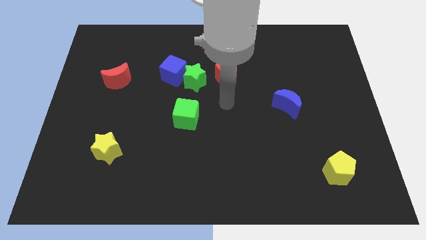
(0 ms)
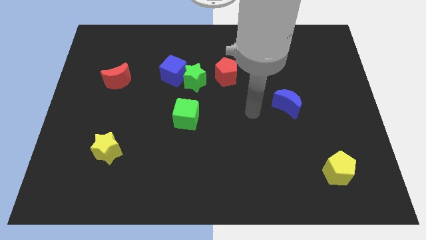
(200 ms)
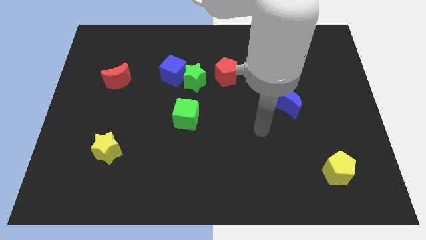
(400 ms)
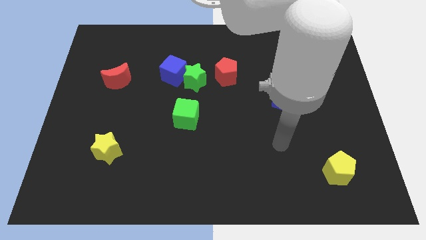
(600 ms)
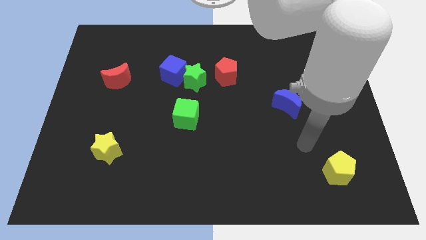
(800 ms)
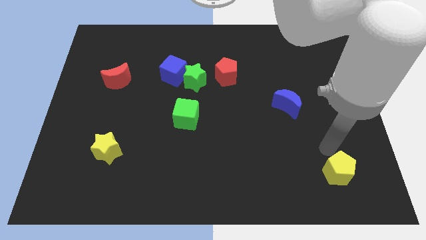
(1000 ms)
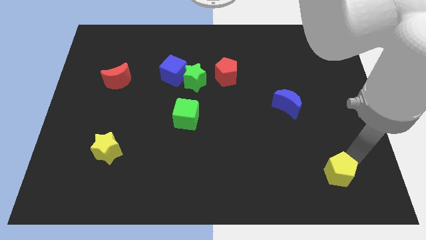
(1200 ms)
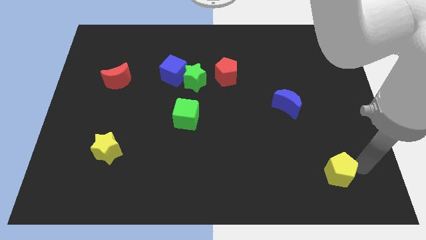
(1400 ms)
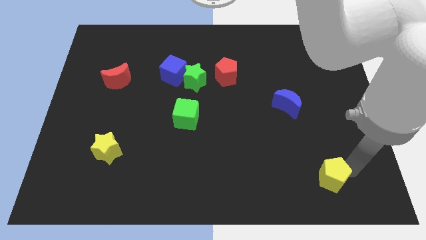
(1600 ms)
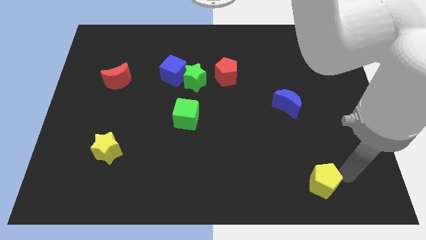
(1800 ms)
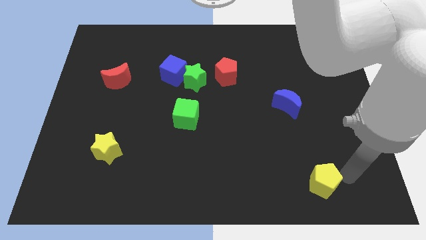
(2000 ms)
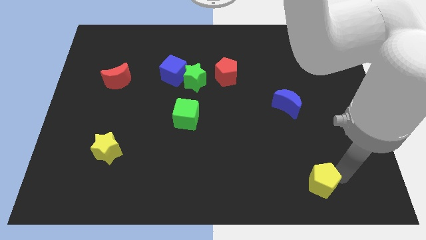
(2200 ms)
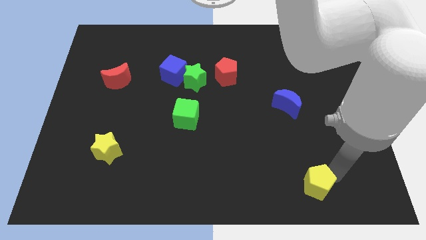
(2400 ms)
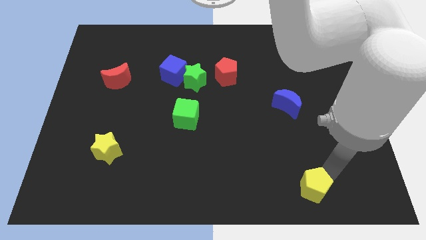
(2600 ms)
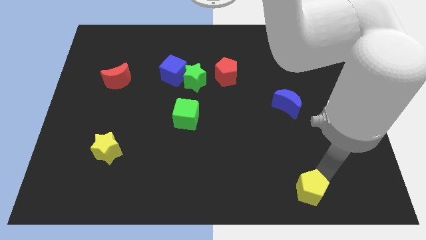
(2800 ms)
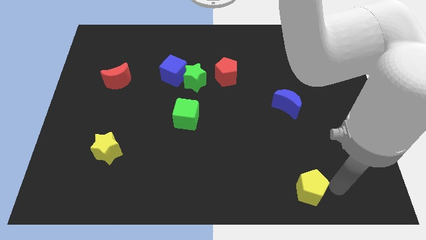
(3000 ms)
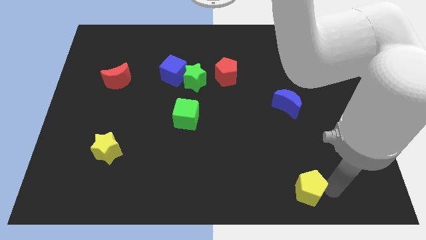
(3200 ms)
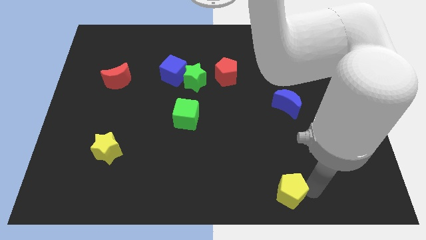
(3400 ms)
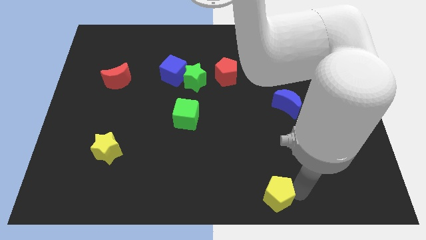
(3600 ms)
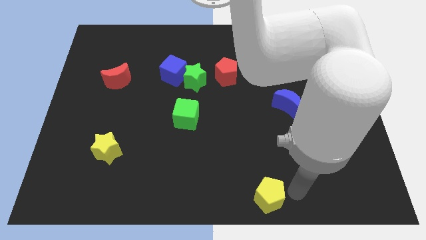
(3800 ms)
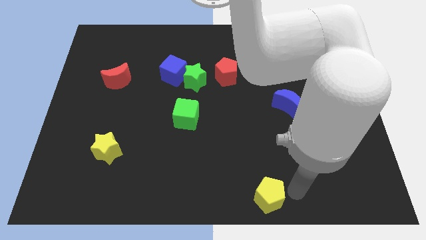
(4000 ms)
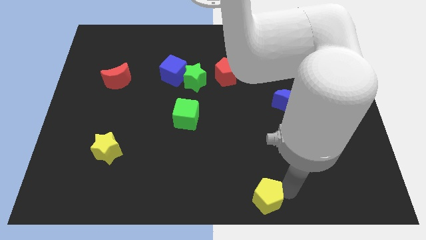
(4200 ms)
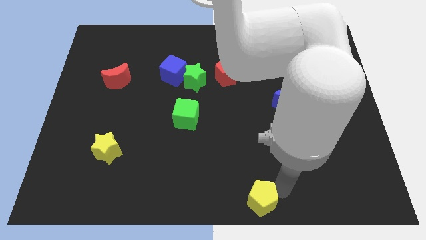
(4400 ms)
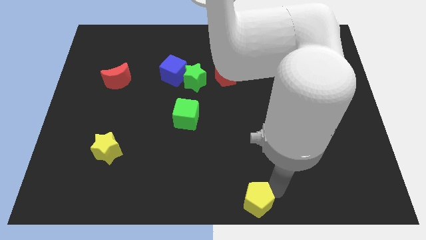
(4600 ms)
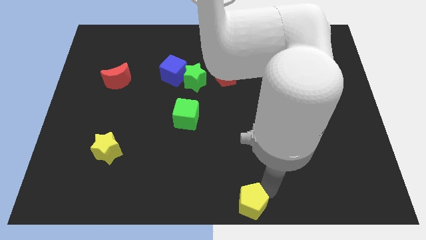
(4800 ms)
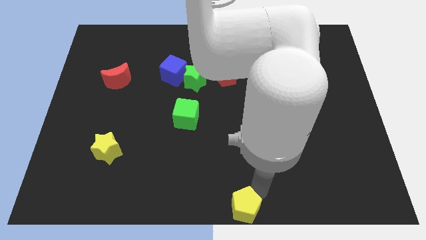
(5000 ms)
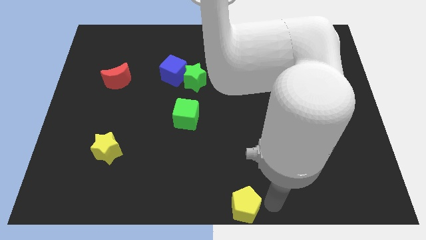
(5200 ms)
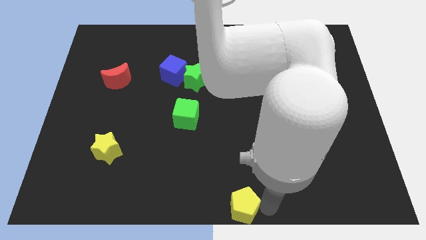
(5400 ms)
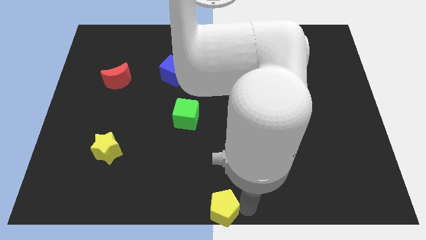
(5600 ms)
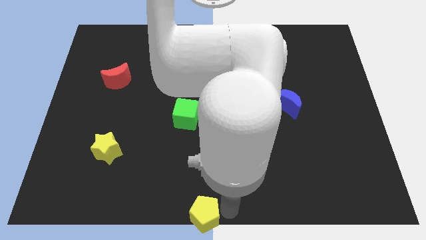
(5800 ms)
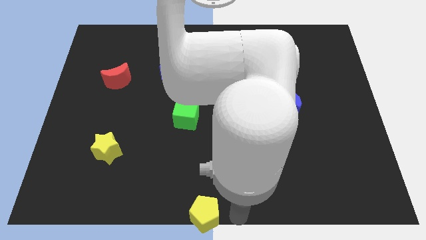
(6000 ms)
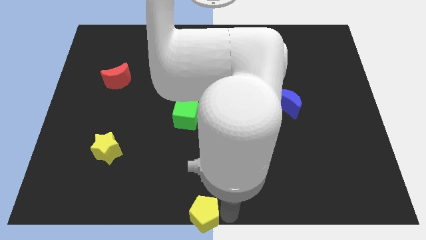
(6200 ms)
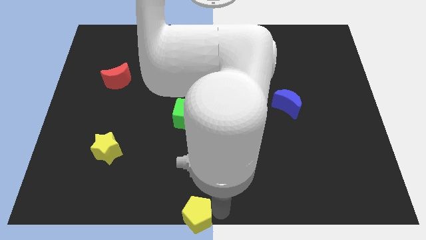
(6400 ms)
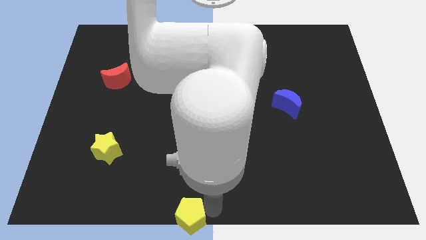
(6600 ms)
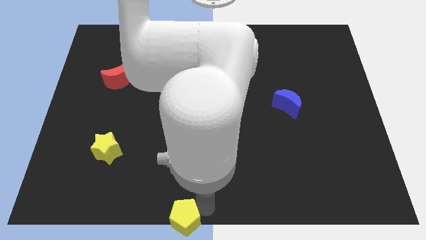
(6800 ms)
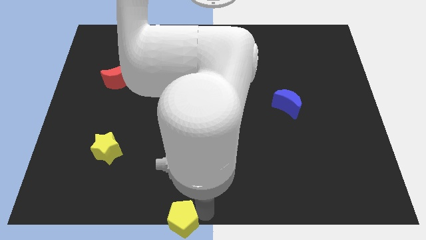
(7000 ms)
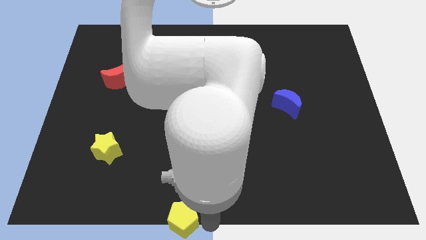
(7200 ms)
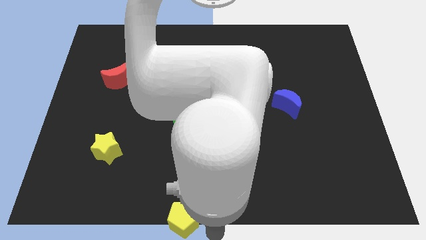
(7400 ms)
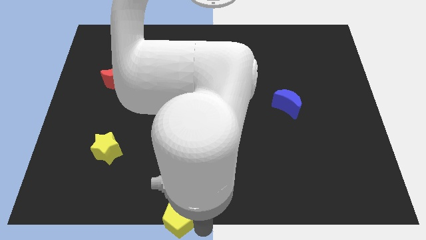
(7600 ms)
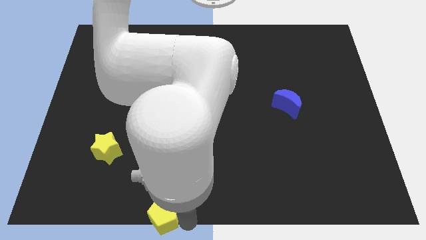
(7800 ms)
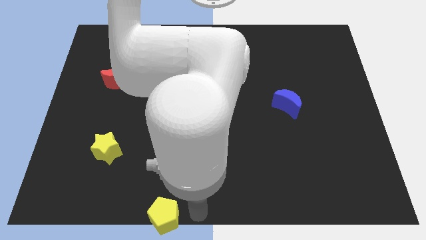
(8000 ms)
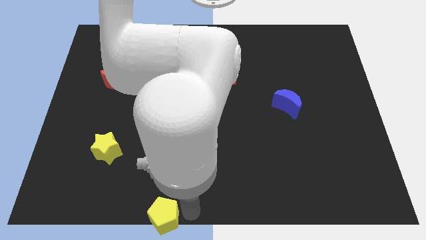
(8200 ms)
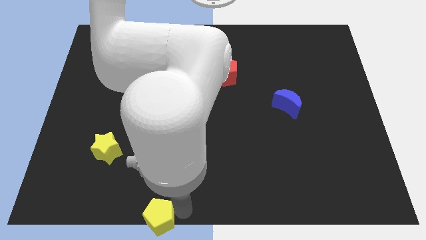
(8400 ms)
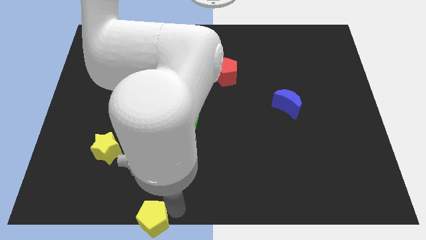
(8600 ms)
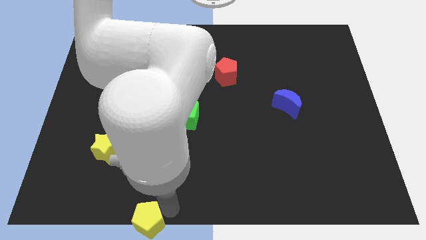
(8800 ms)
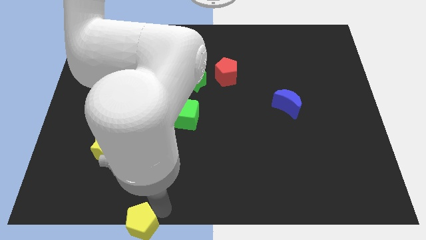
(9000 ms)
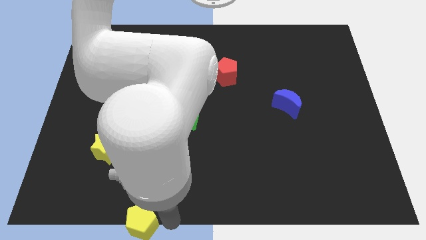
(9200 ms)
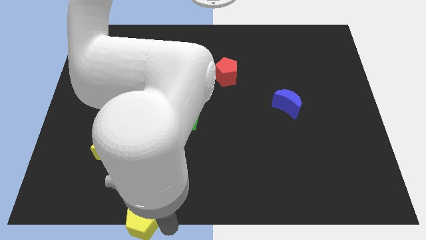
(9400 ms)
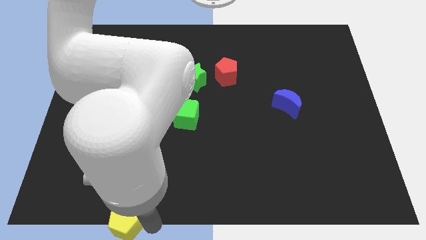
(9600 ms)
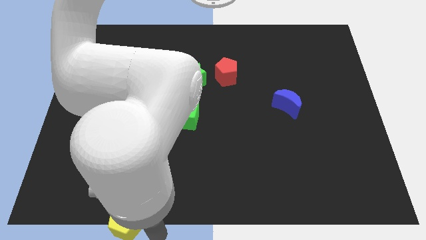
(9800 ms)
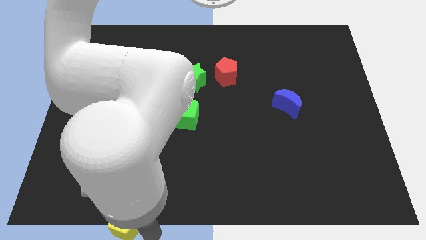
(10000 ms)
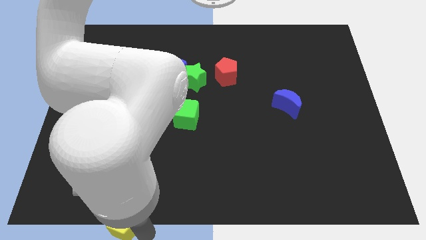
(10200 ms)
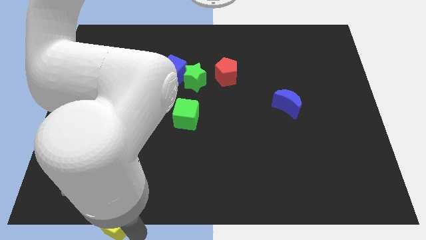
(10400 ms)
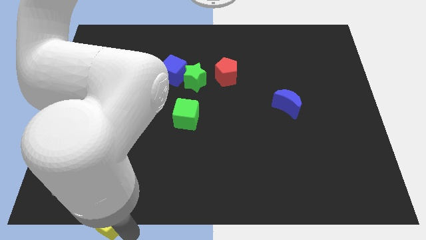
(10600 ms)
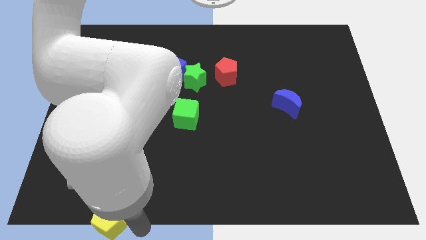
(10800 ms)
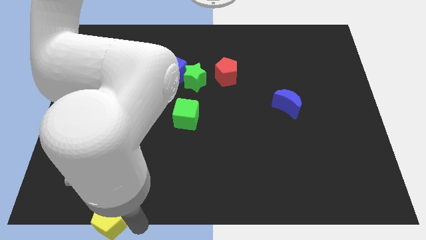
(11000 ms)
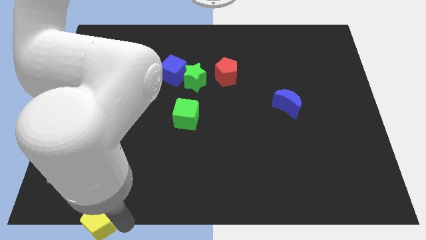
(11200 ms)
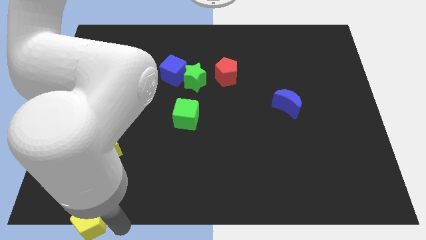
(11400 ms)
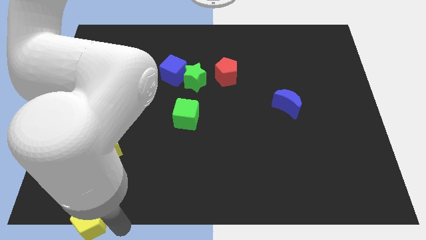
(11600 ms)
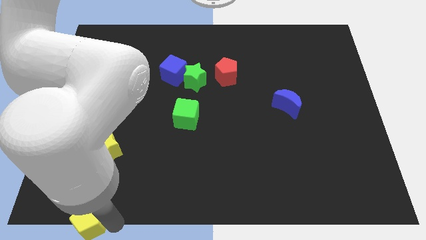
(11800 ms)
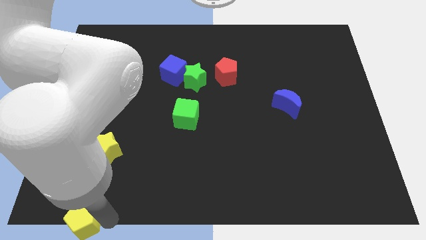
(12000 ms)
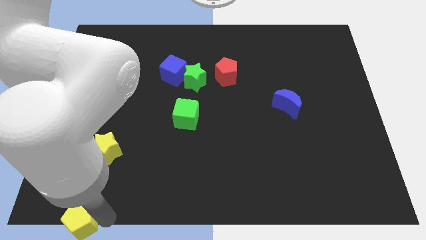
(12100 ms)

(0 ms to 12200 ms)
put the yellow pentagon to the bottom left of the board
